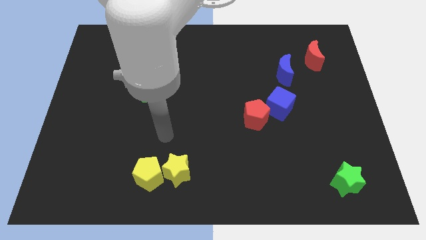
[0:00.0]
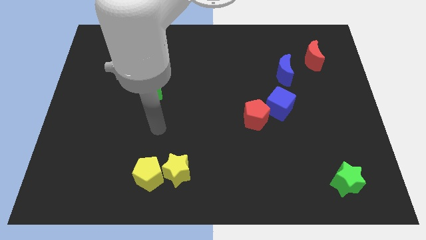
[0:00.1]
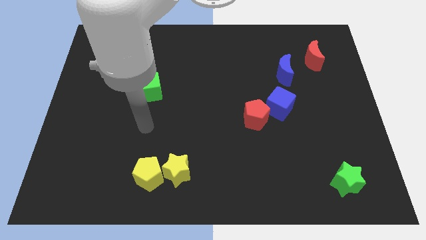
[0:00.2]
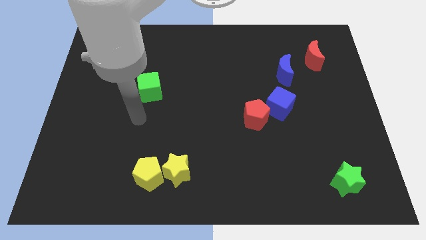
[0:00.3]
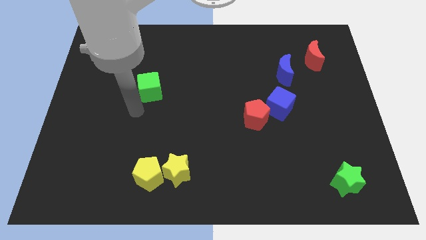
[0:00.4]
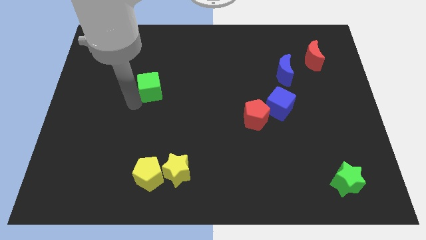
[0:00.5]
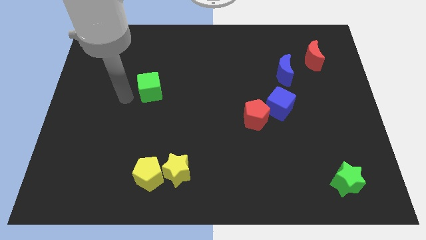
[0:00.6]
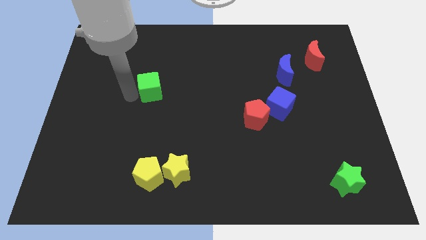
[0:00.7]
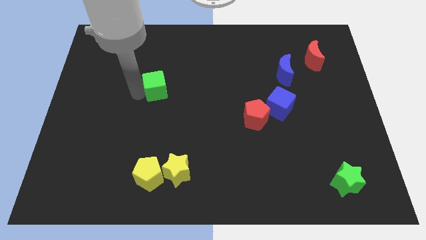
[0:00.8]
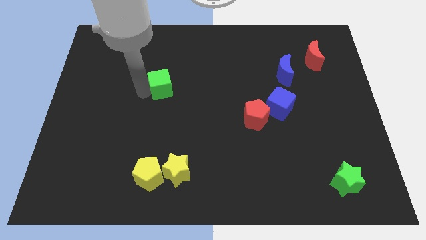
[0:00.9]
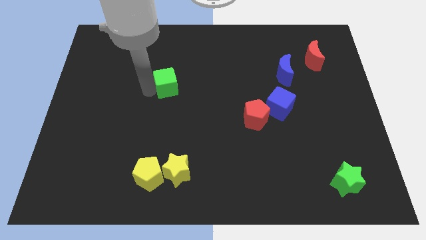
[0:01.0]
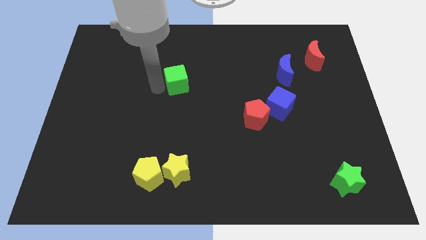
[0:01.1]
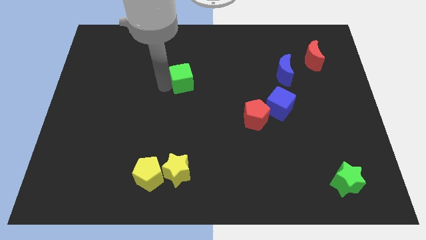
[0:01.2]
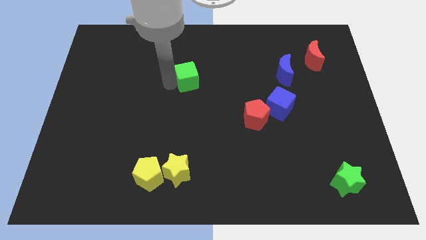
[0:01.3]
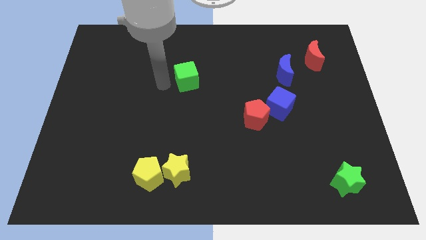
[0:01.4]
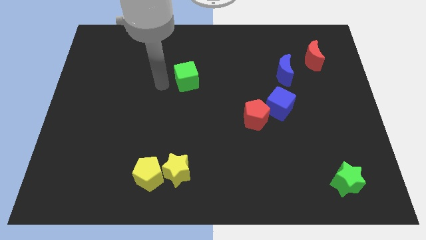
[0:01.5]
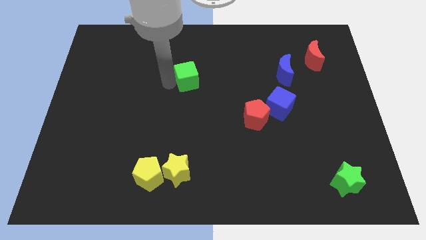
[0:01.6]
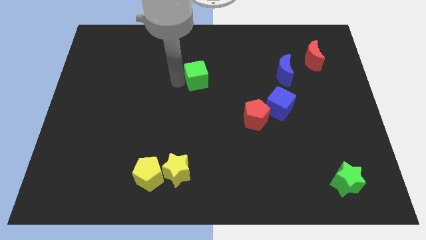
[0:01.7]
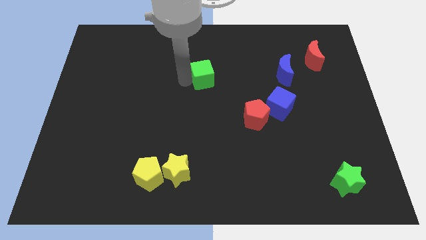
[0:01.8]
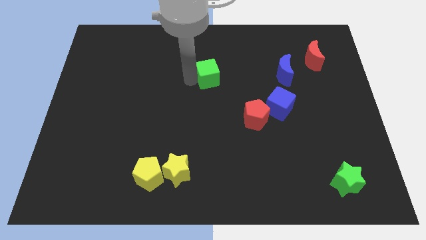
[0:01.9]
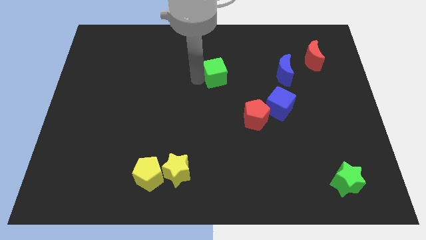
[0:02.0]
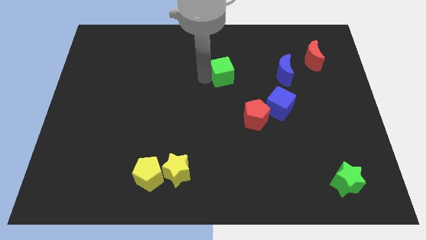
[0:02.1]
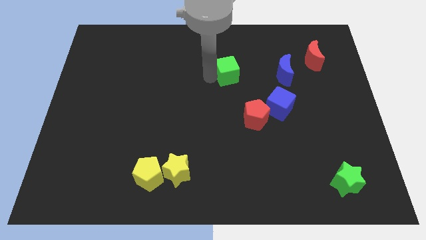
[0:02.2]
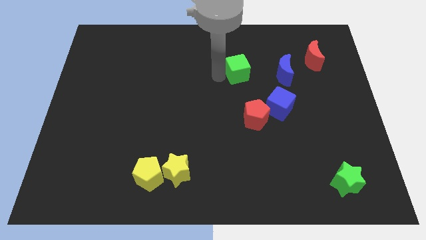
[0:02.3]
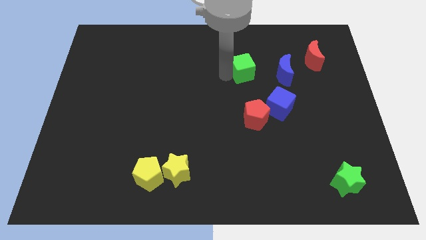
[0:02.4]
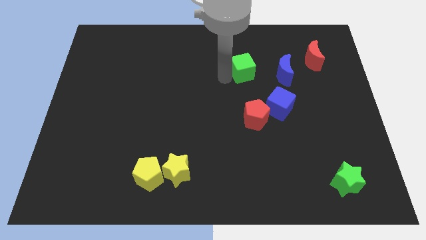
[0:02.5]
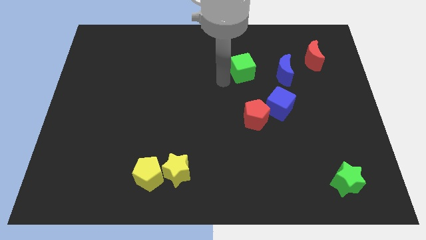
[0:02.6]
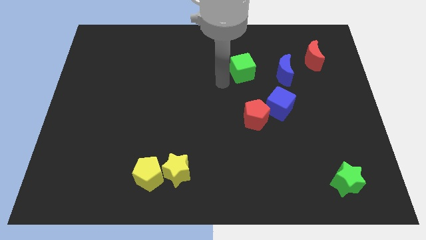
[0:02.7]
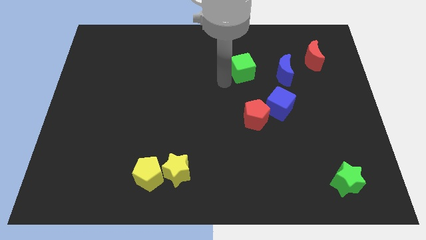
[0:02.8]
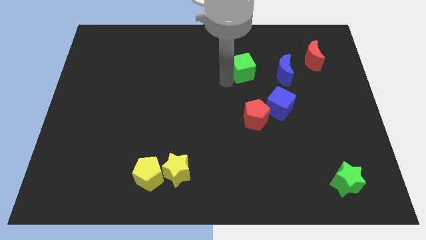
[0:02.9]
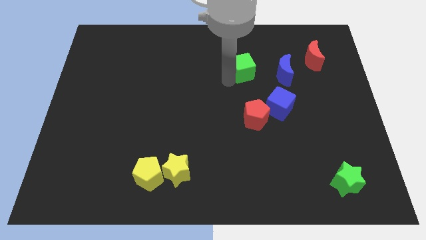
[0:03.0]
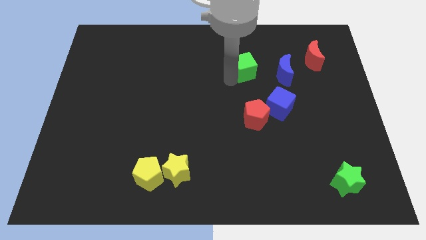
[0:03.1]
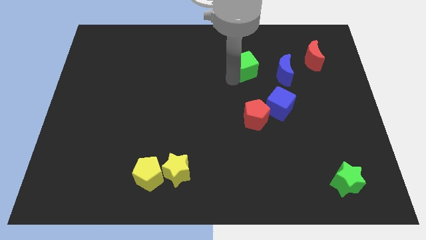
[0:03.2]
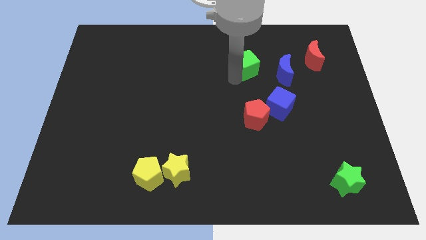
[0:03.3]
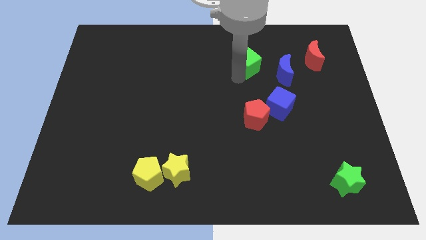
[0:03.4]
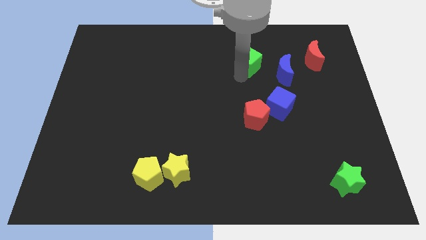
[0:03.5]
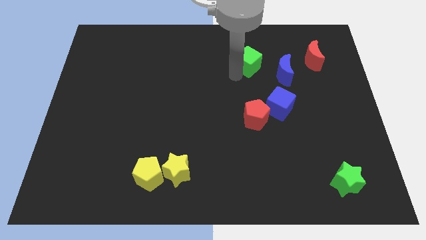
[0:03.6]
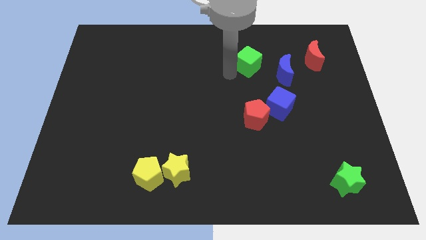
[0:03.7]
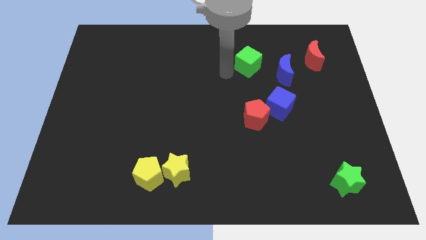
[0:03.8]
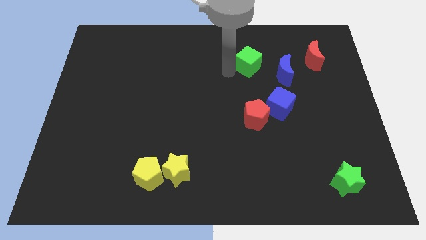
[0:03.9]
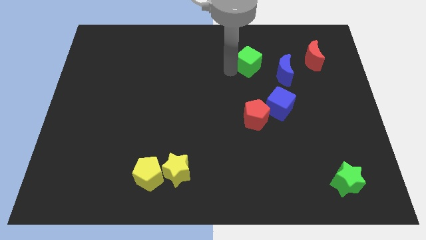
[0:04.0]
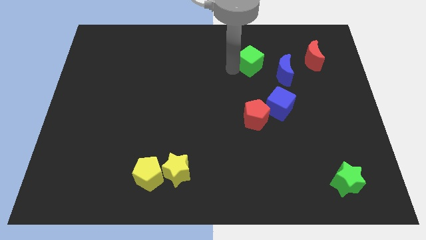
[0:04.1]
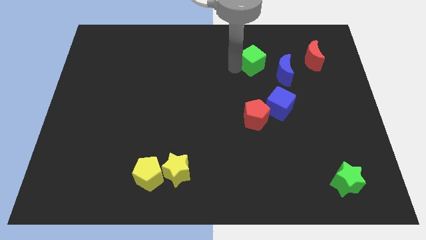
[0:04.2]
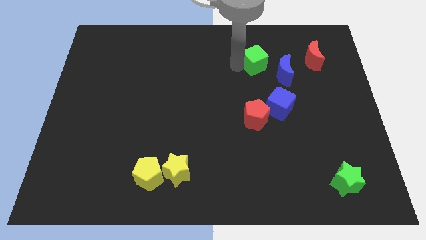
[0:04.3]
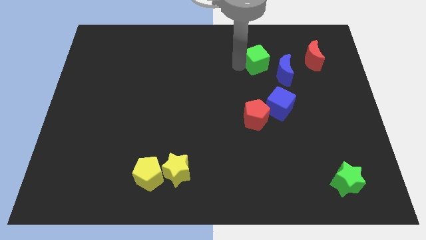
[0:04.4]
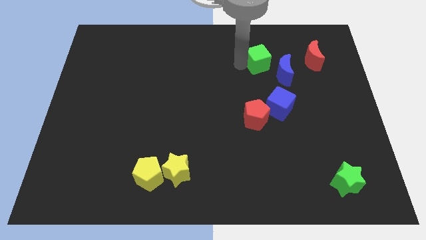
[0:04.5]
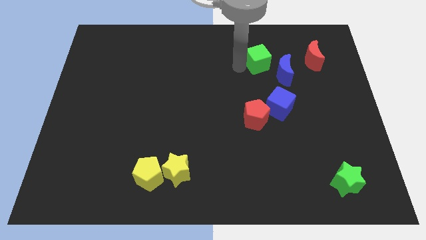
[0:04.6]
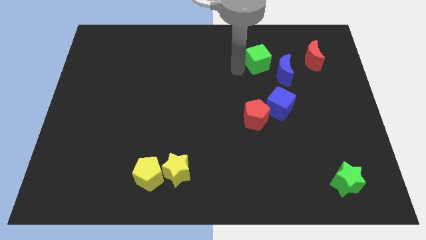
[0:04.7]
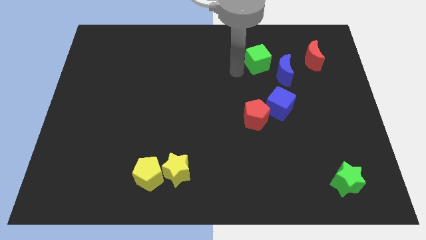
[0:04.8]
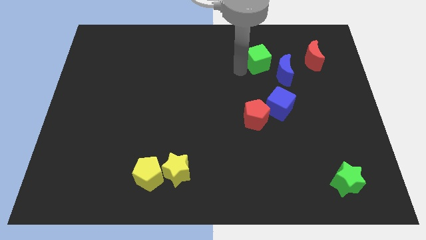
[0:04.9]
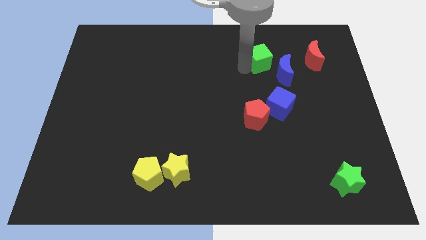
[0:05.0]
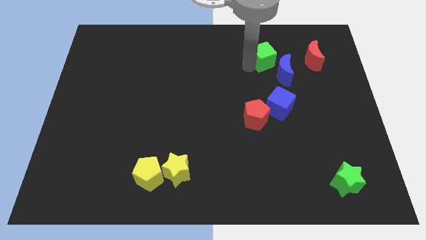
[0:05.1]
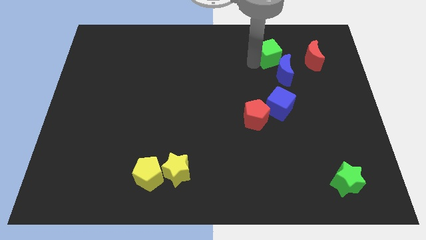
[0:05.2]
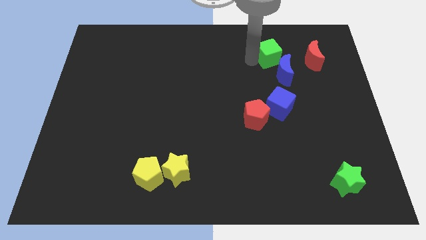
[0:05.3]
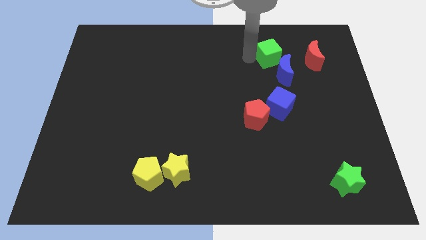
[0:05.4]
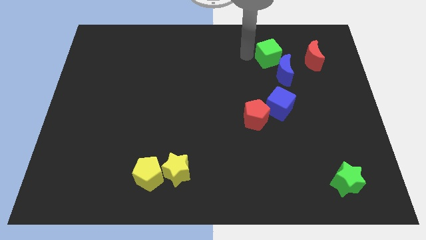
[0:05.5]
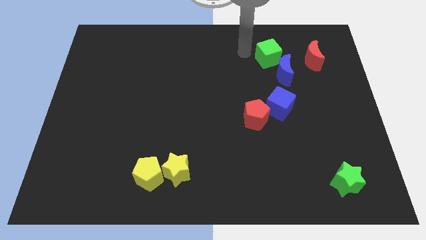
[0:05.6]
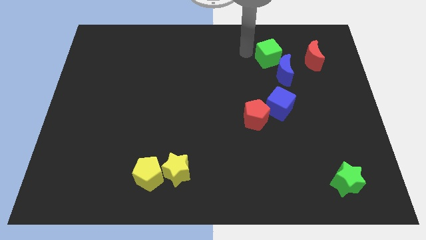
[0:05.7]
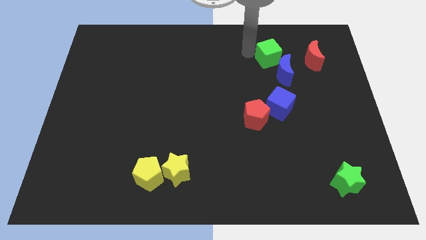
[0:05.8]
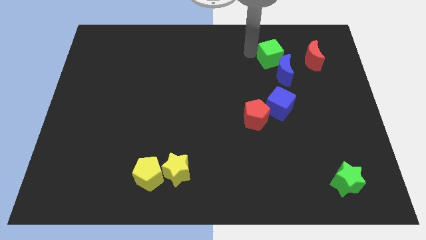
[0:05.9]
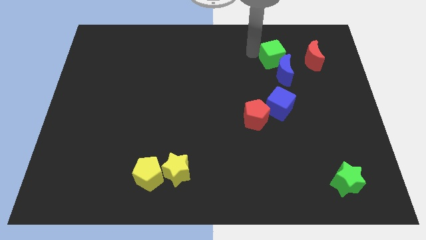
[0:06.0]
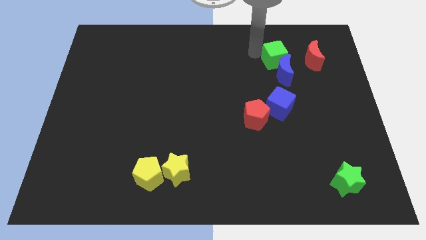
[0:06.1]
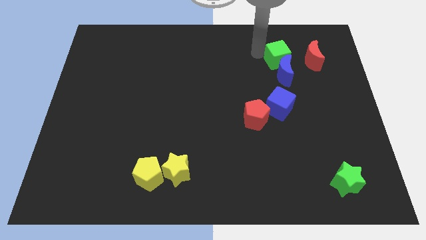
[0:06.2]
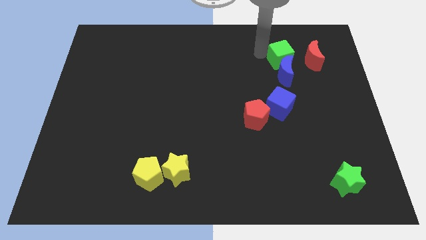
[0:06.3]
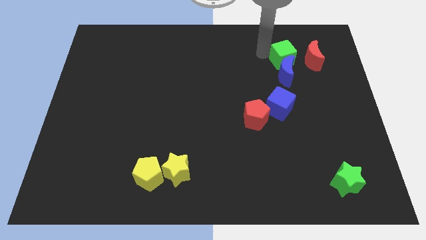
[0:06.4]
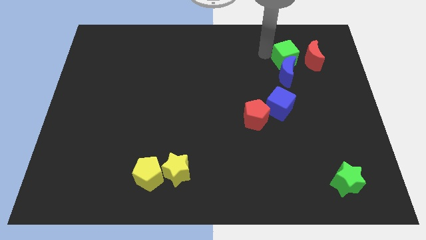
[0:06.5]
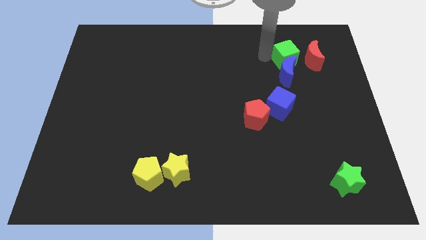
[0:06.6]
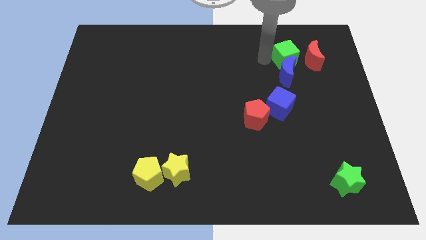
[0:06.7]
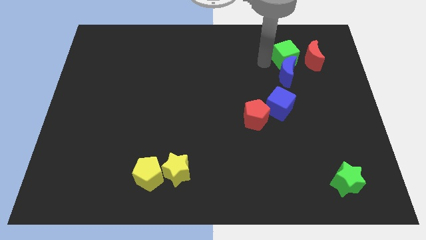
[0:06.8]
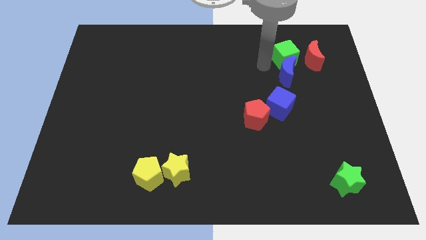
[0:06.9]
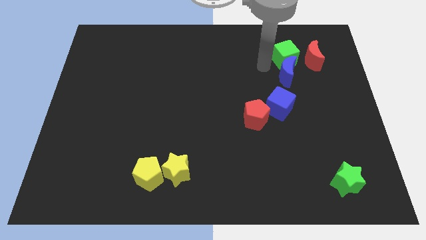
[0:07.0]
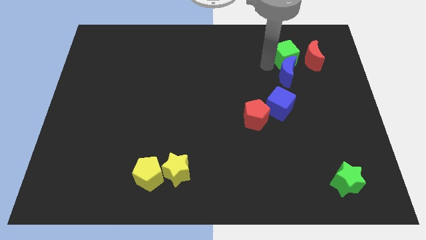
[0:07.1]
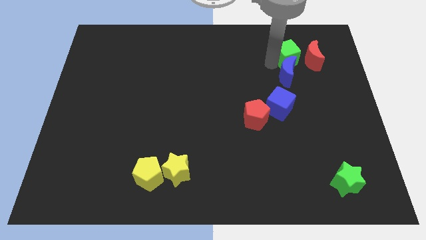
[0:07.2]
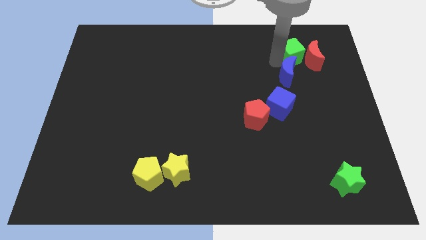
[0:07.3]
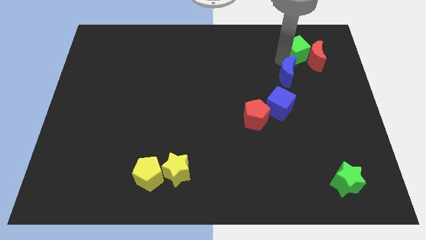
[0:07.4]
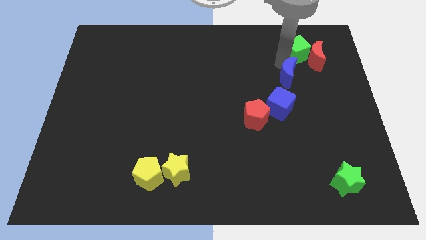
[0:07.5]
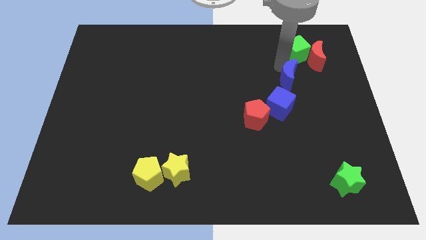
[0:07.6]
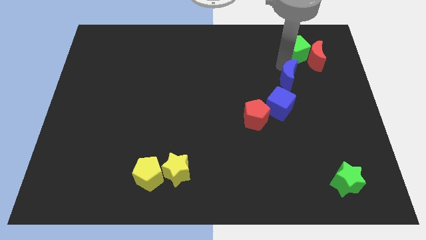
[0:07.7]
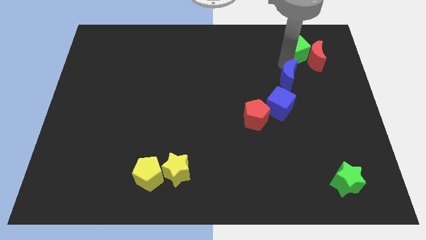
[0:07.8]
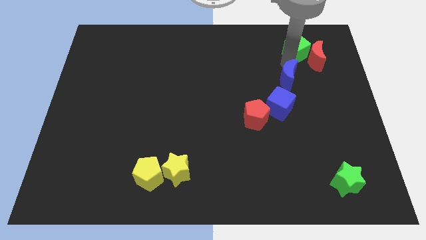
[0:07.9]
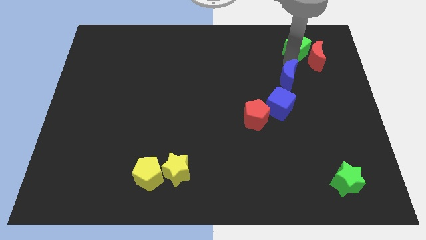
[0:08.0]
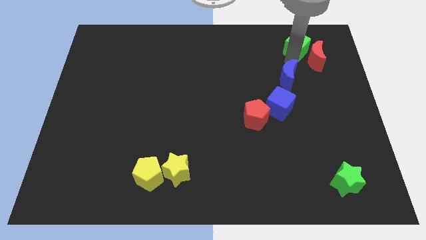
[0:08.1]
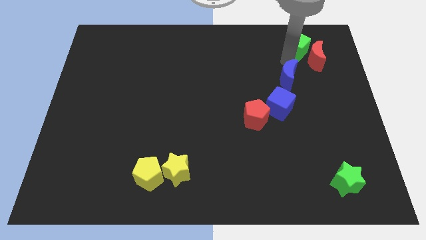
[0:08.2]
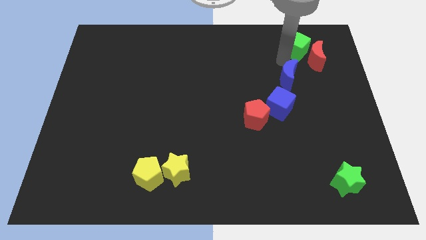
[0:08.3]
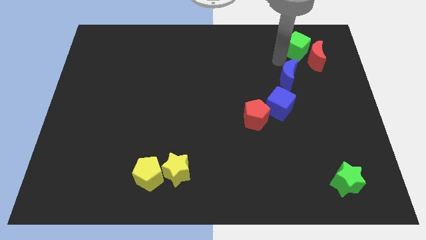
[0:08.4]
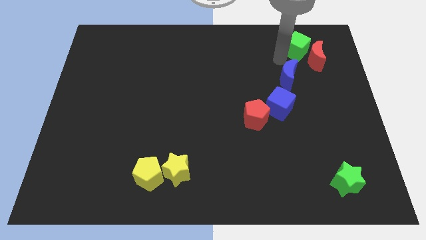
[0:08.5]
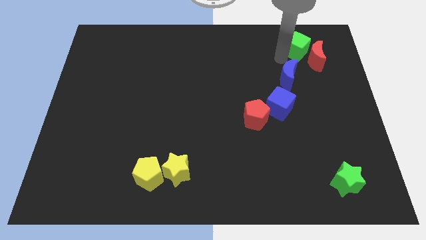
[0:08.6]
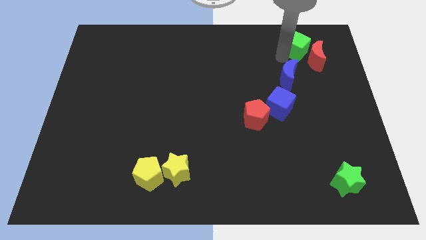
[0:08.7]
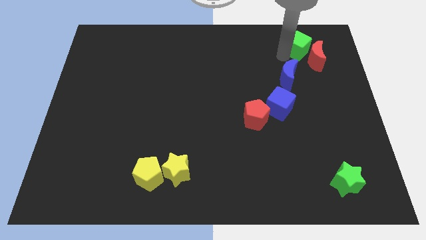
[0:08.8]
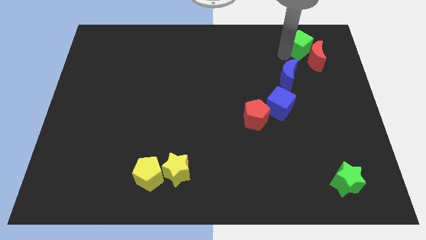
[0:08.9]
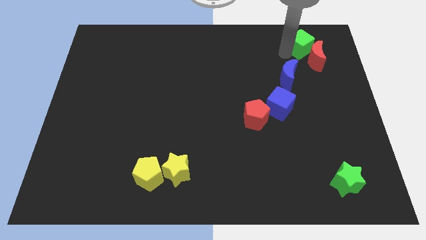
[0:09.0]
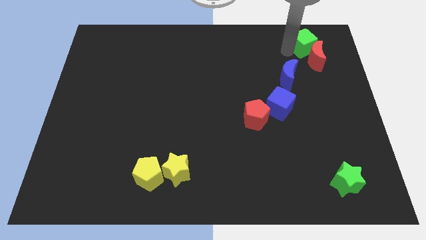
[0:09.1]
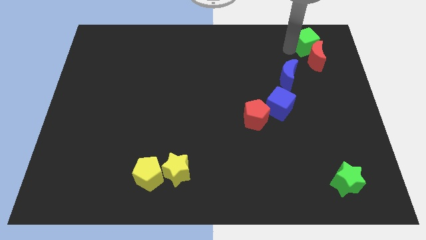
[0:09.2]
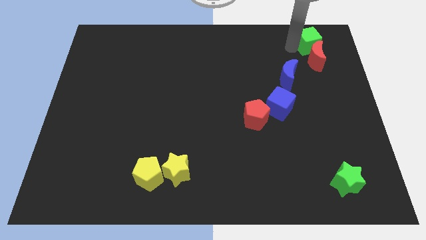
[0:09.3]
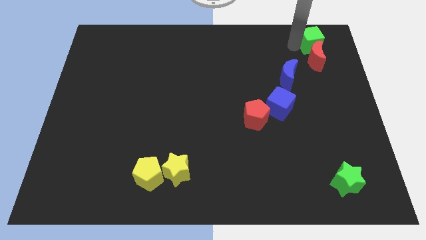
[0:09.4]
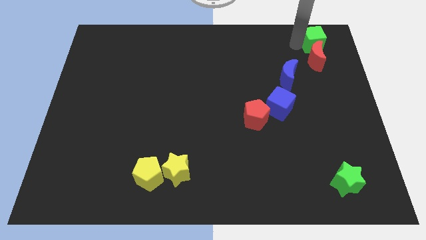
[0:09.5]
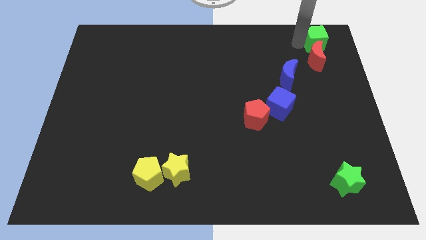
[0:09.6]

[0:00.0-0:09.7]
move the green cube to the top right corner
